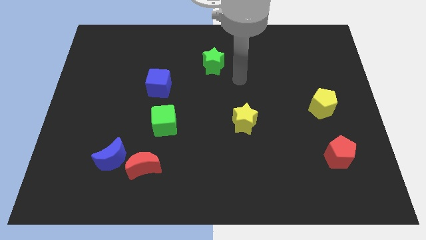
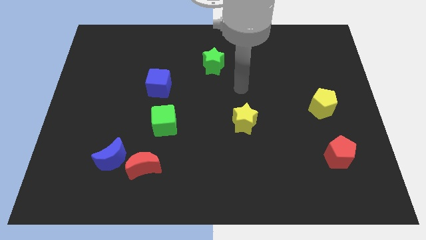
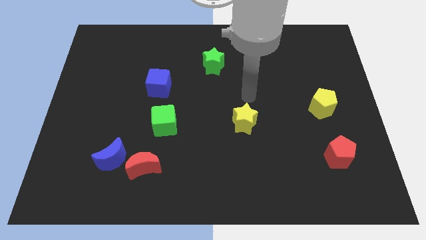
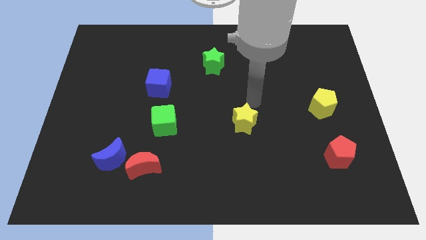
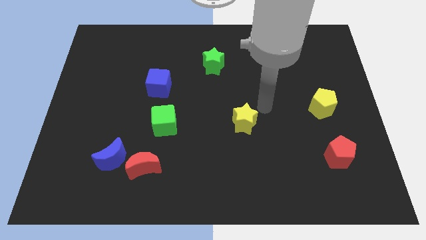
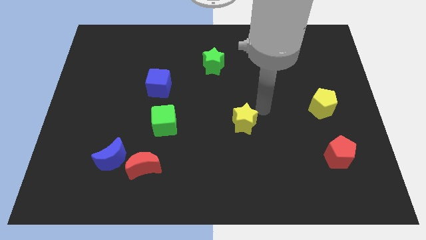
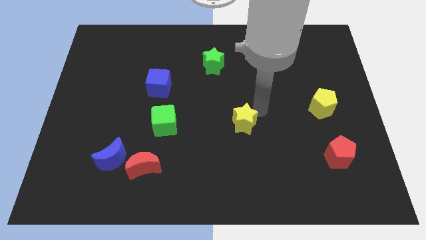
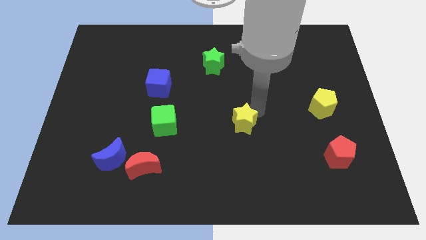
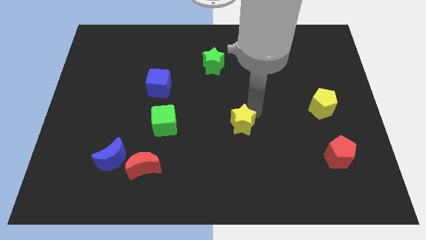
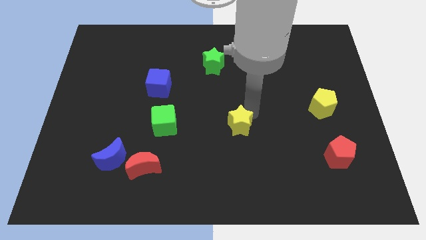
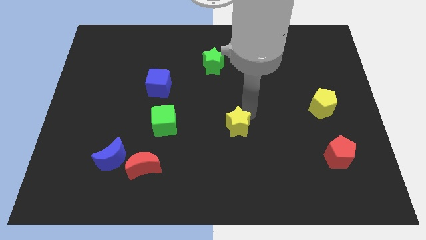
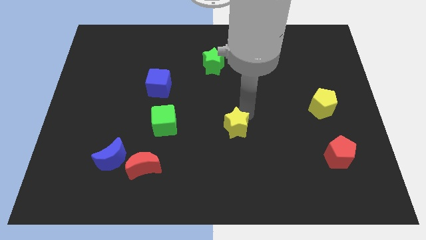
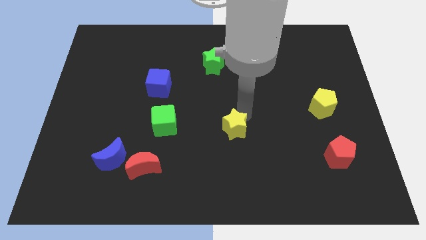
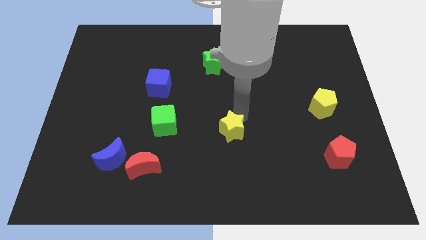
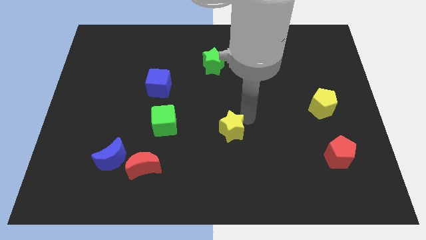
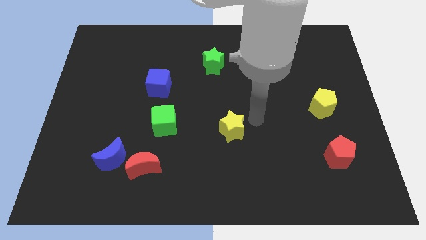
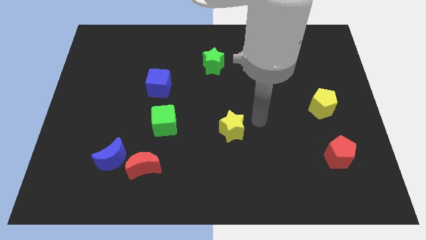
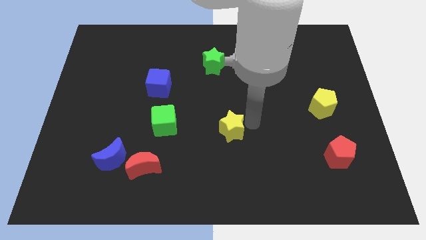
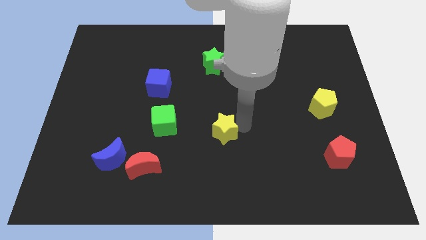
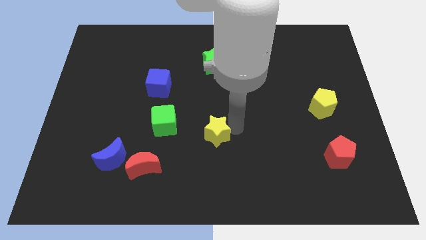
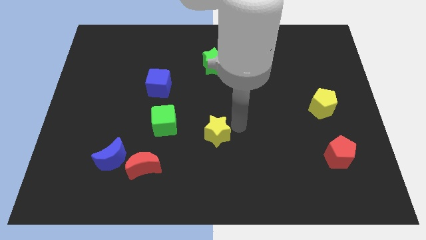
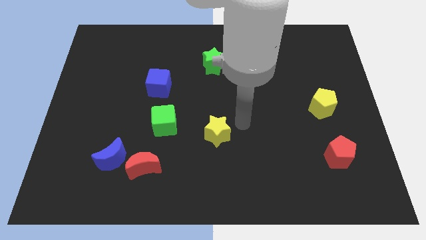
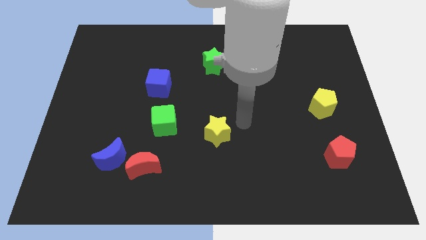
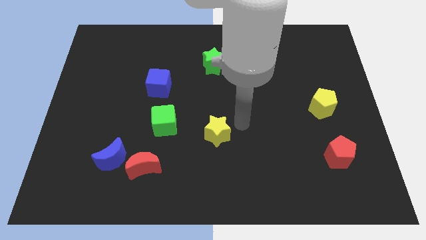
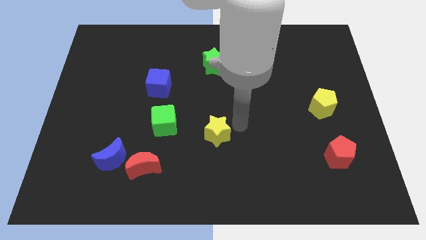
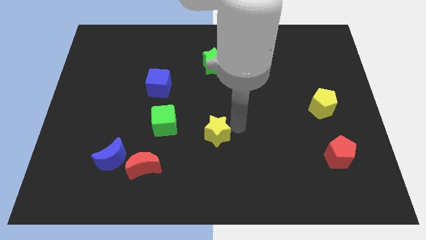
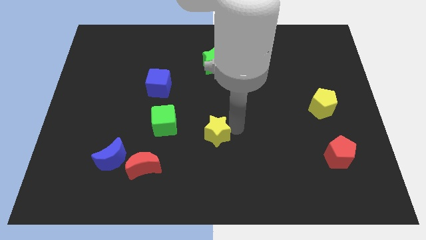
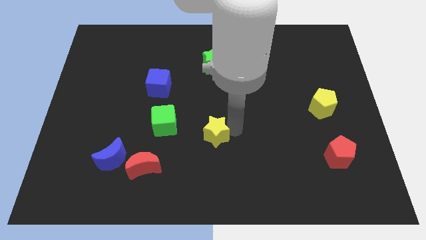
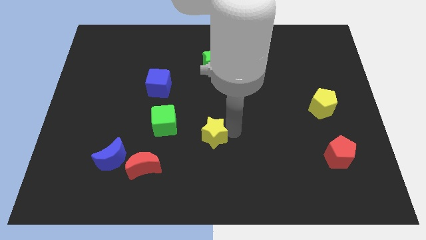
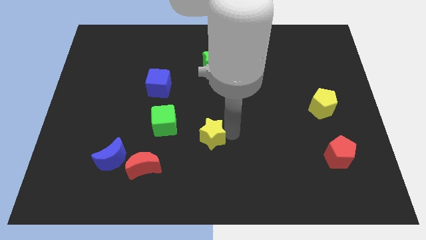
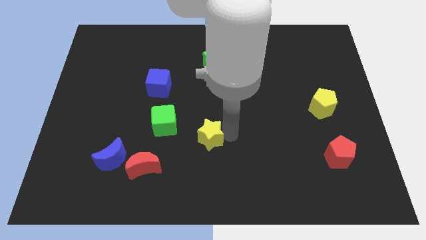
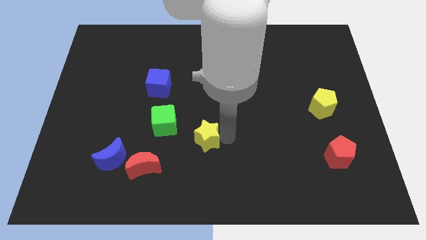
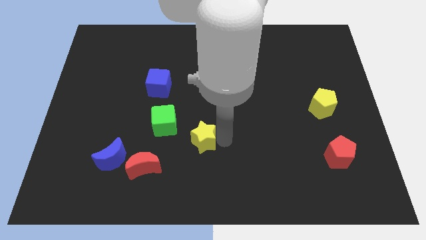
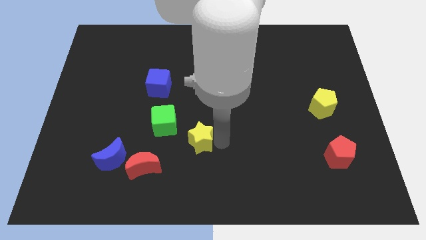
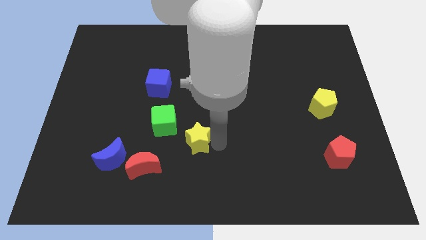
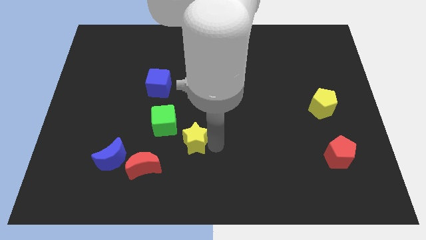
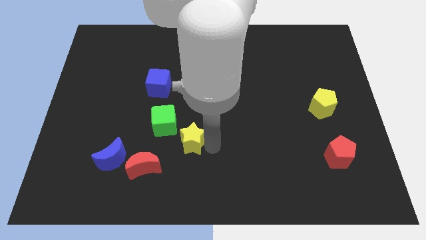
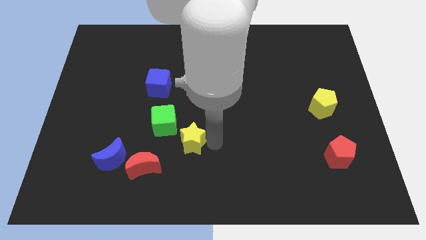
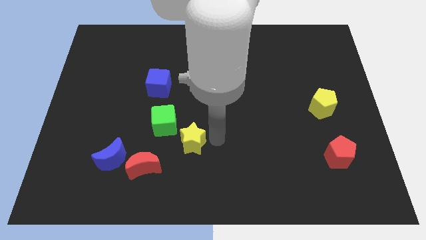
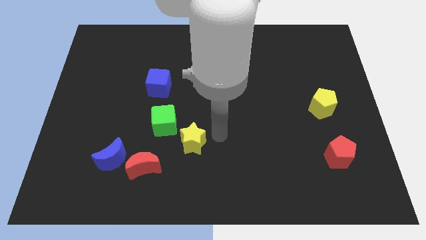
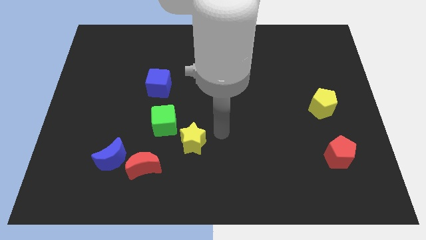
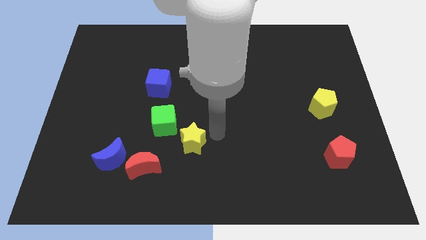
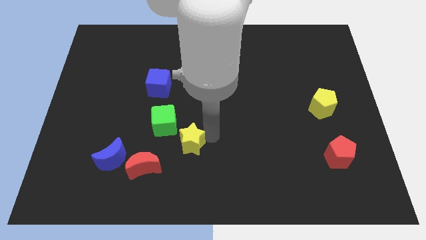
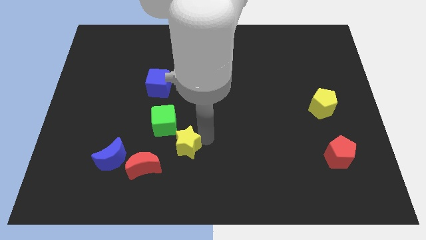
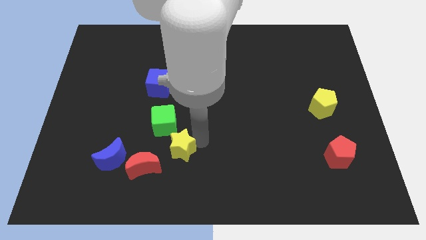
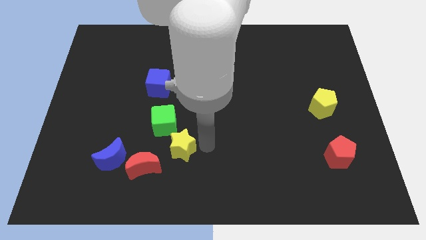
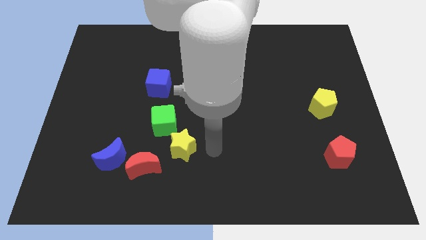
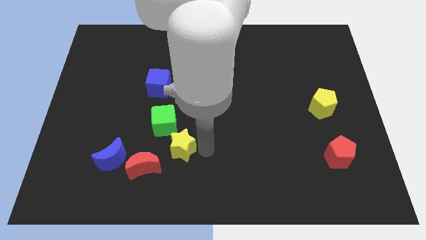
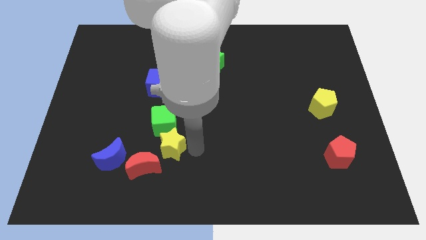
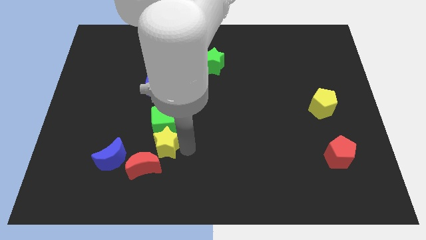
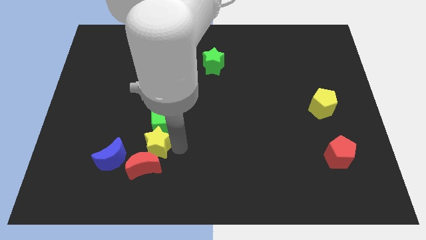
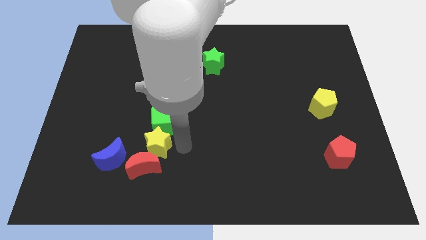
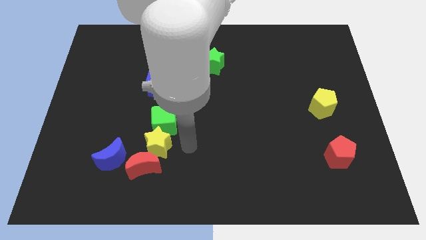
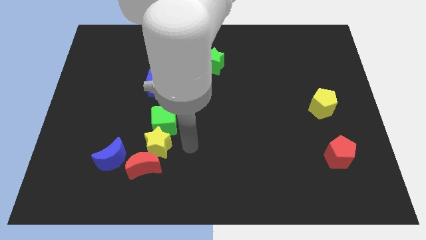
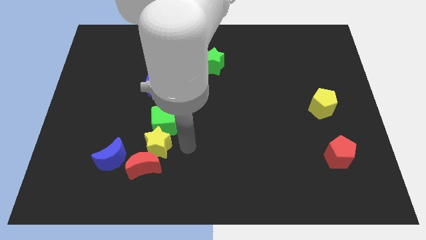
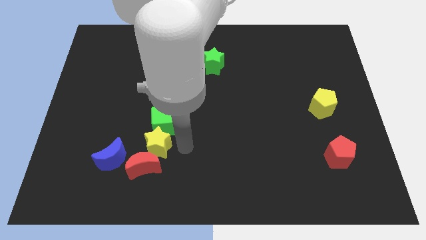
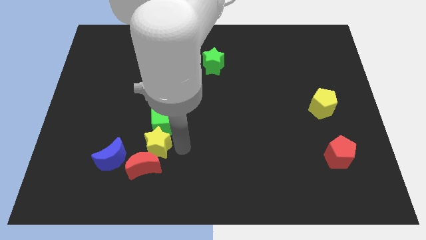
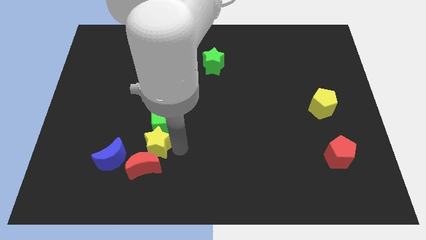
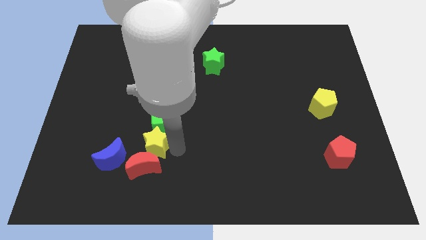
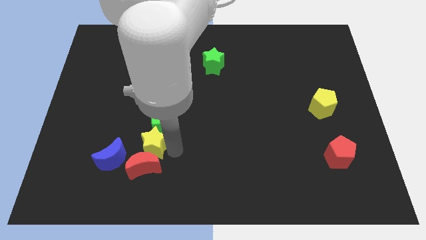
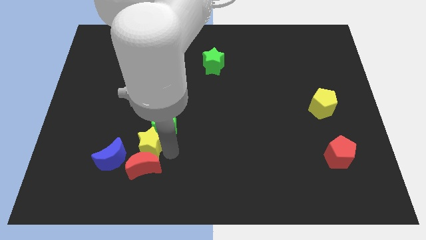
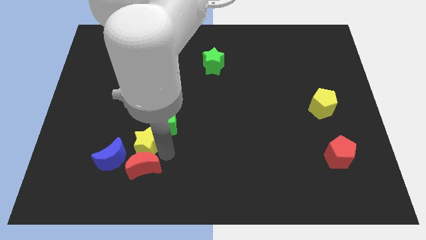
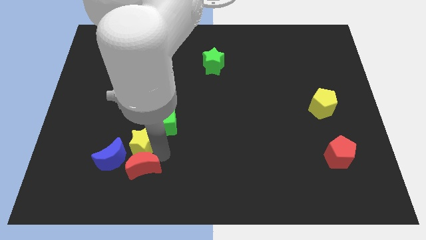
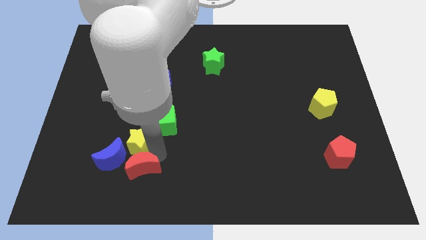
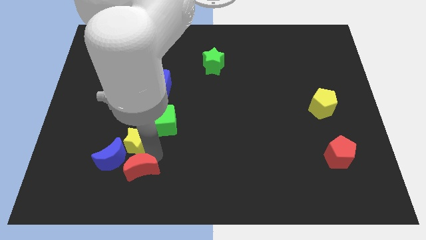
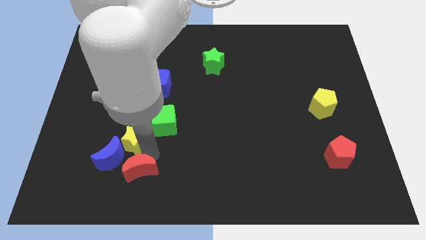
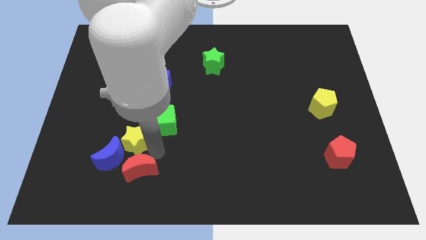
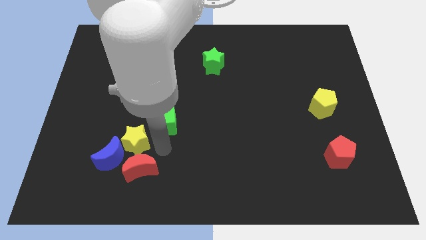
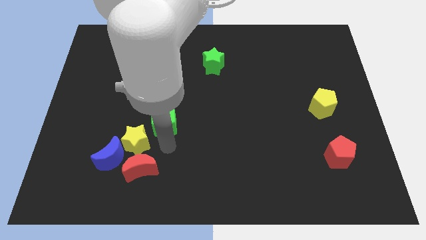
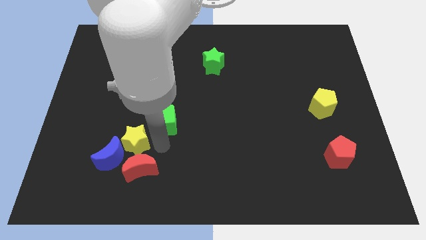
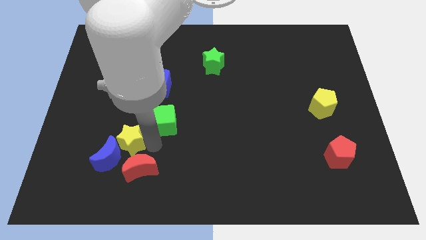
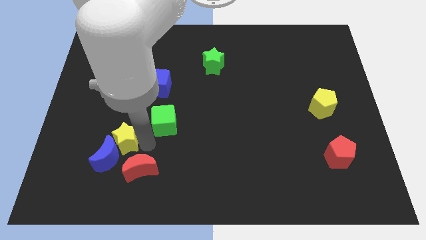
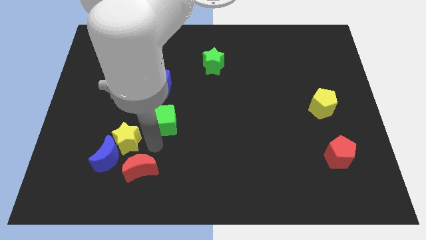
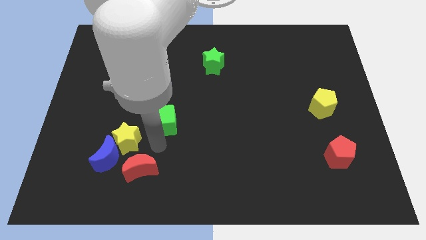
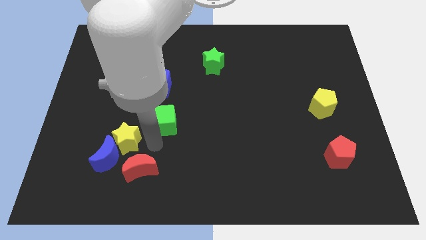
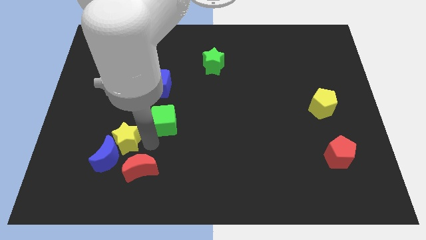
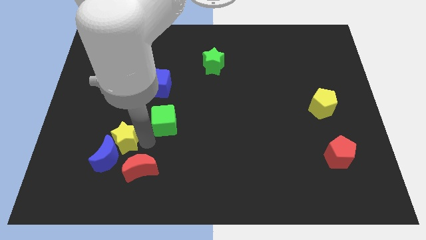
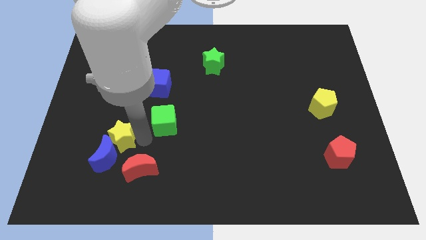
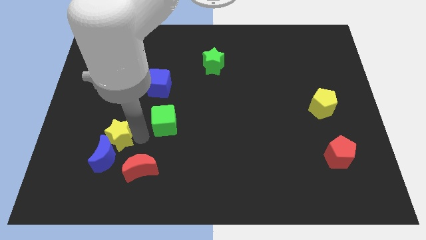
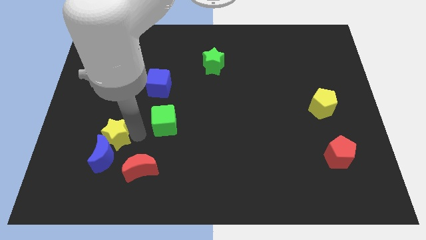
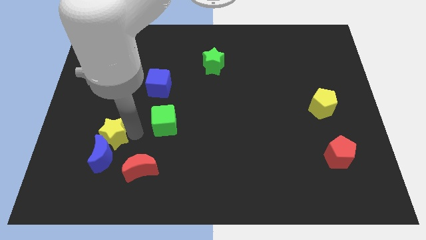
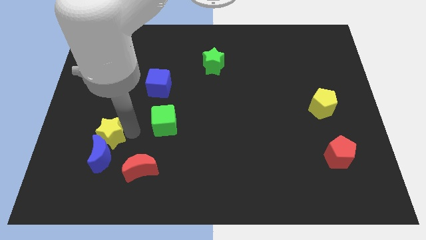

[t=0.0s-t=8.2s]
move the yellow star to the top left of the blue moon
